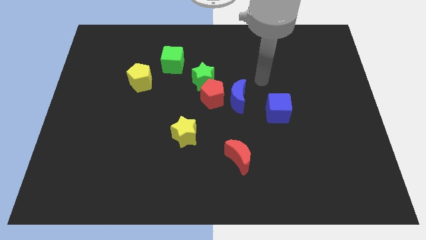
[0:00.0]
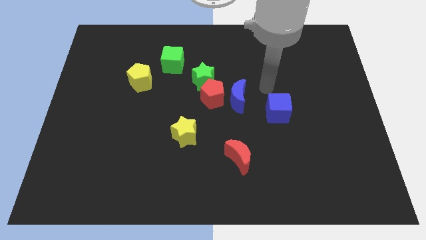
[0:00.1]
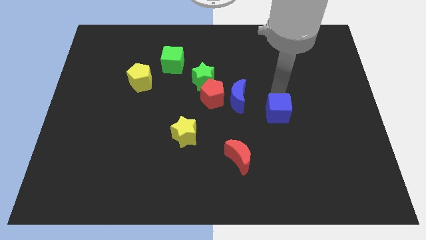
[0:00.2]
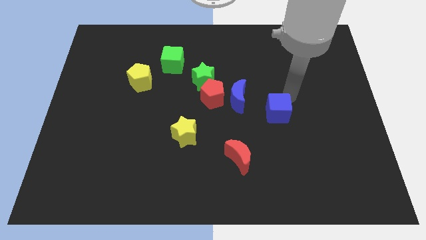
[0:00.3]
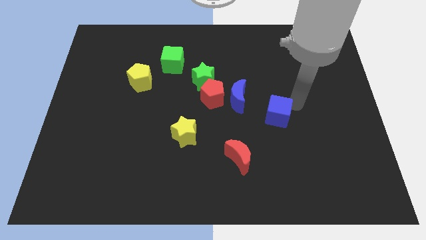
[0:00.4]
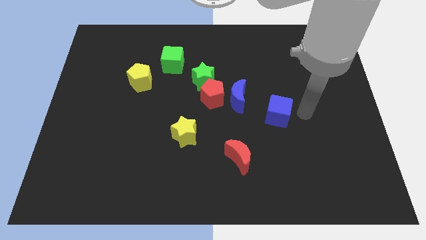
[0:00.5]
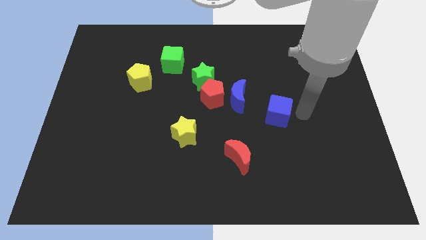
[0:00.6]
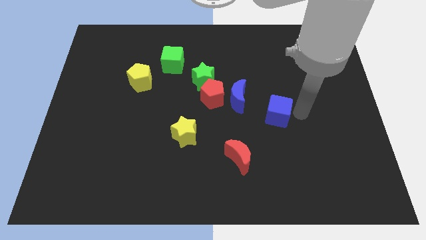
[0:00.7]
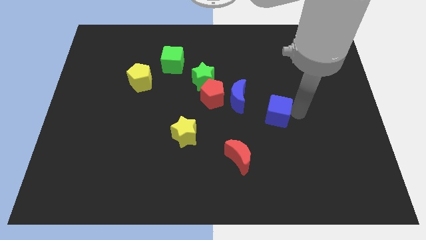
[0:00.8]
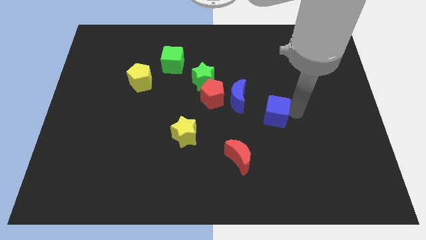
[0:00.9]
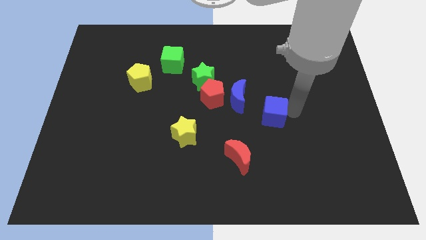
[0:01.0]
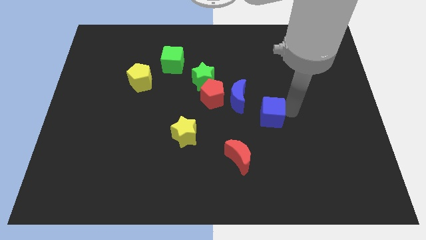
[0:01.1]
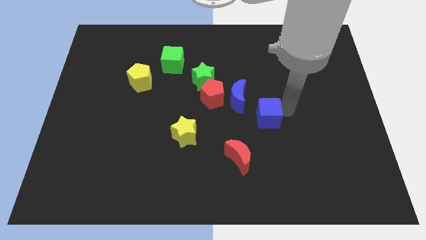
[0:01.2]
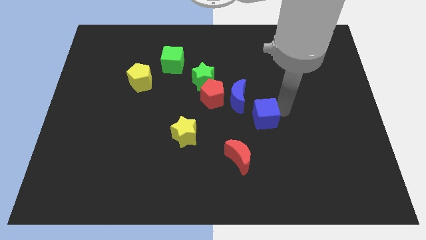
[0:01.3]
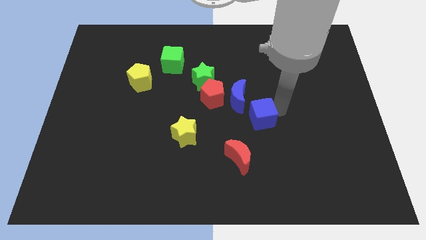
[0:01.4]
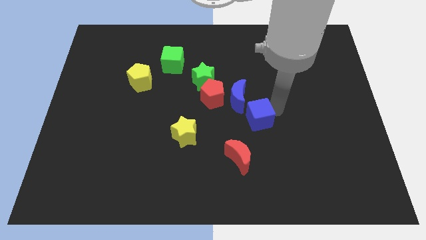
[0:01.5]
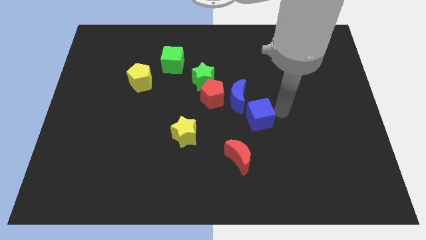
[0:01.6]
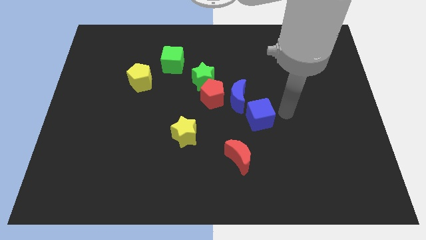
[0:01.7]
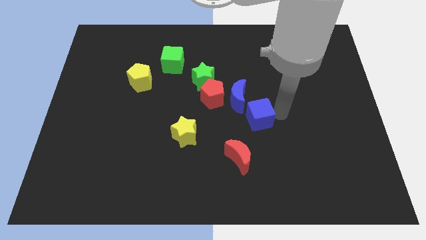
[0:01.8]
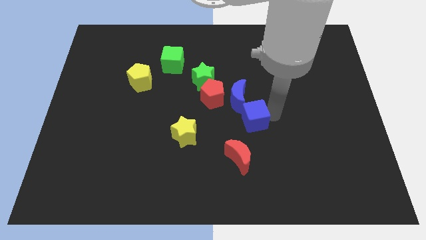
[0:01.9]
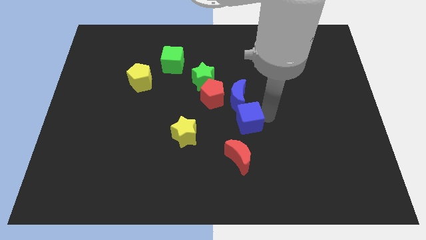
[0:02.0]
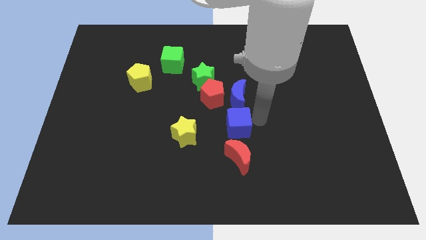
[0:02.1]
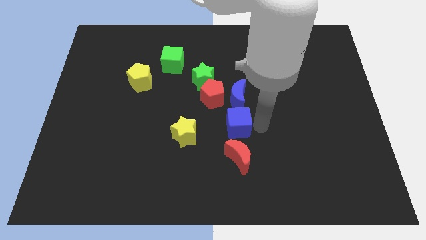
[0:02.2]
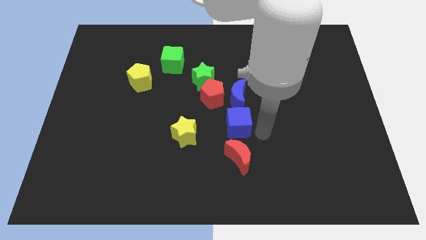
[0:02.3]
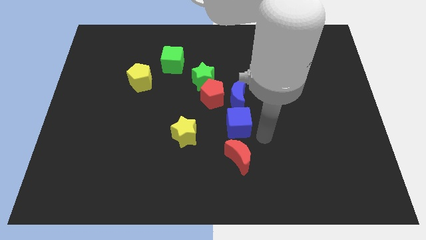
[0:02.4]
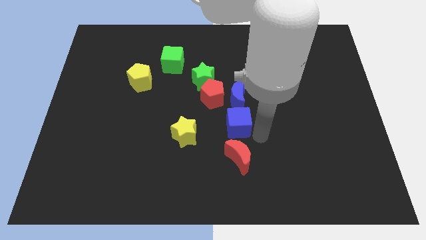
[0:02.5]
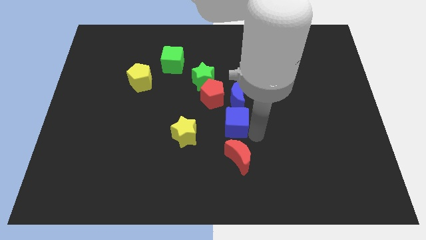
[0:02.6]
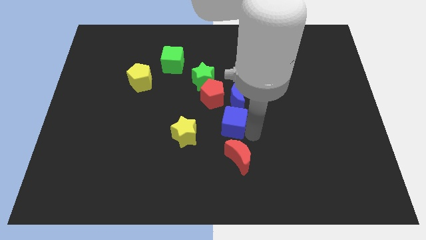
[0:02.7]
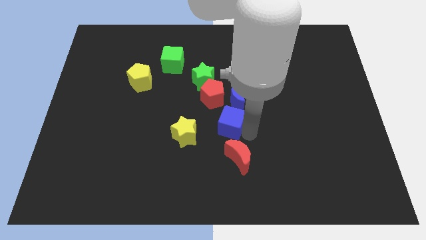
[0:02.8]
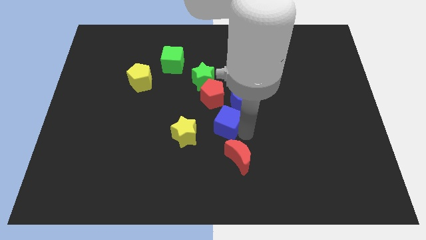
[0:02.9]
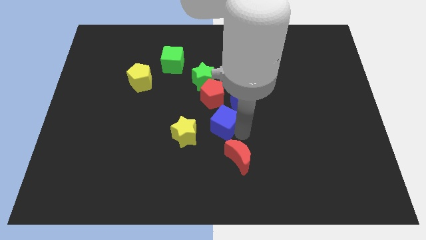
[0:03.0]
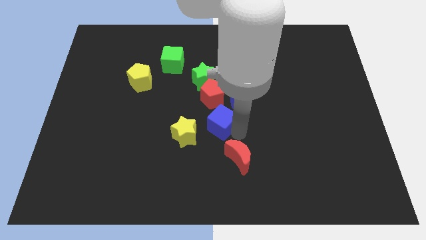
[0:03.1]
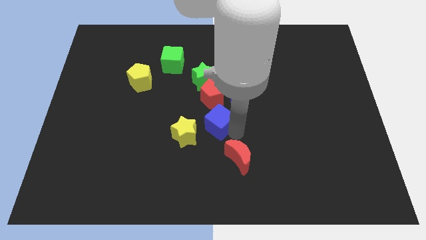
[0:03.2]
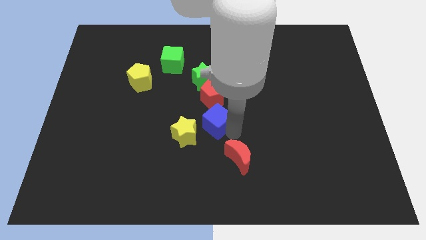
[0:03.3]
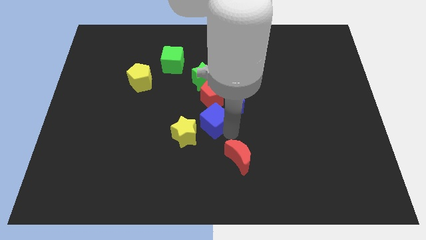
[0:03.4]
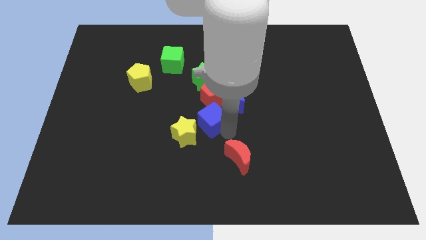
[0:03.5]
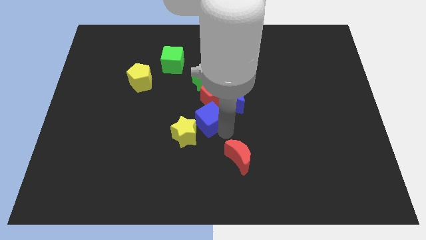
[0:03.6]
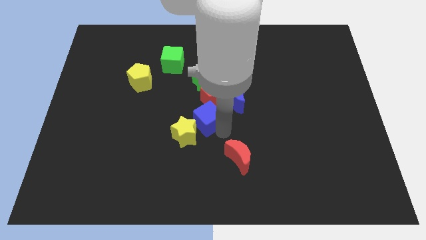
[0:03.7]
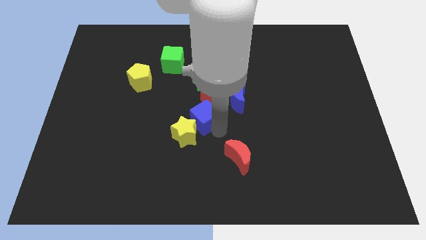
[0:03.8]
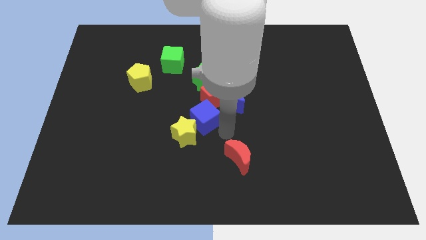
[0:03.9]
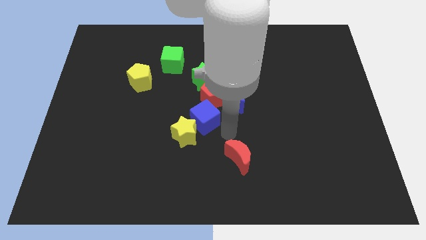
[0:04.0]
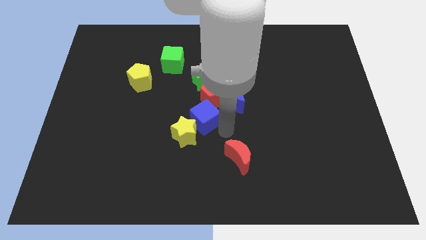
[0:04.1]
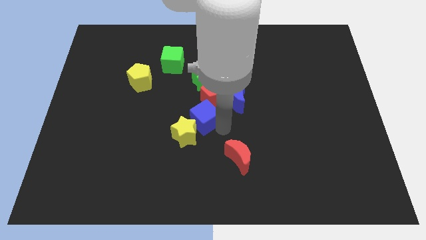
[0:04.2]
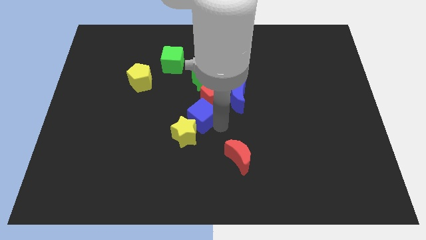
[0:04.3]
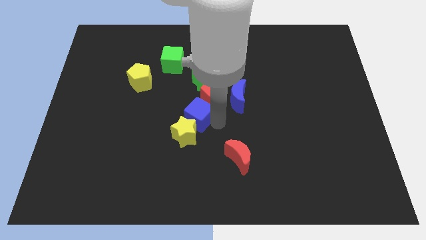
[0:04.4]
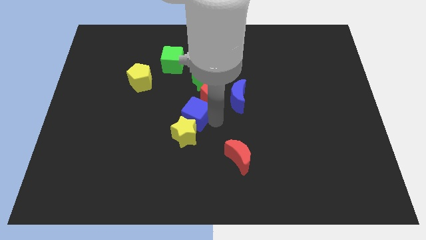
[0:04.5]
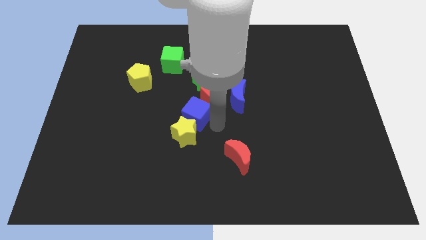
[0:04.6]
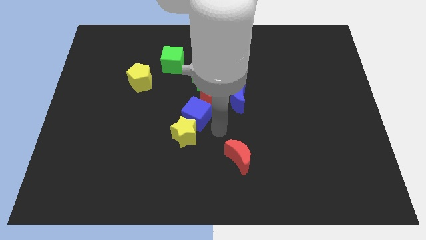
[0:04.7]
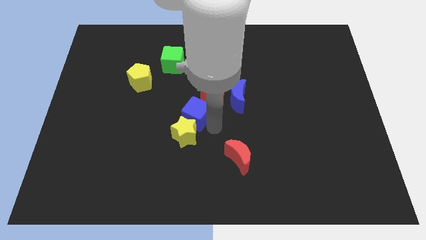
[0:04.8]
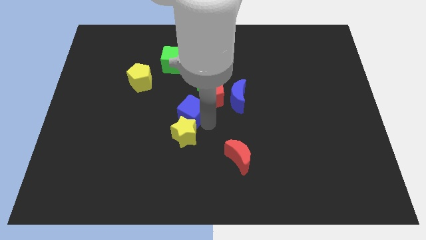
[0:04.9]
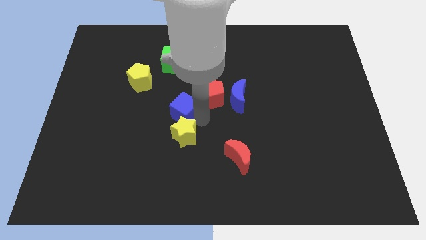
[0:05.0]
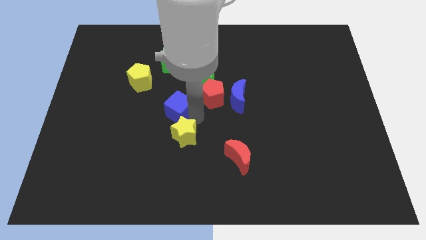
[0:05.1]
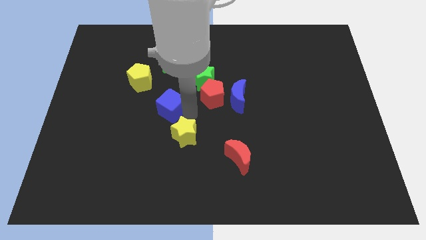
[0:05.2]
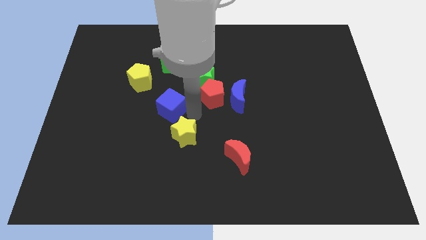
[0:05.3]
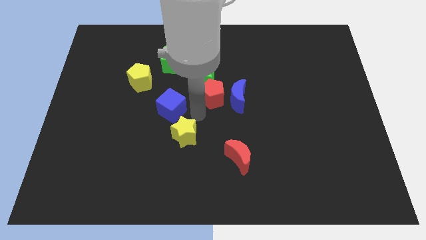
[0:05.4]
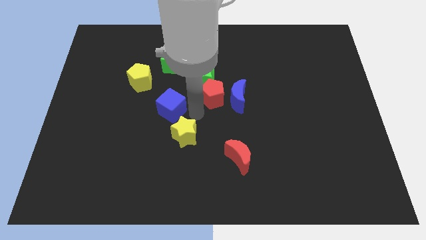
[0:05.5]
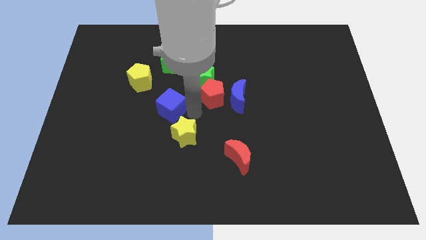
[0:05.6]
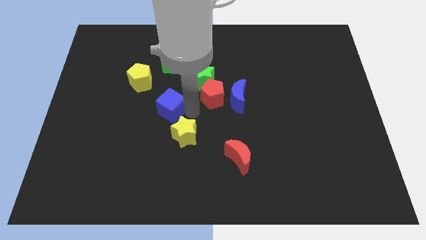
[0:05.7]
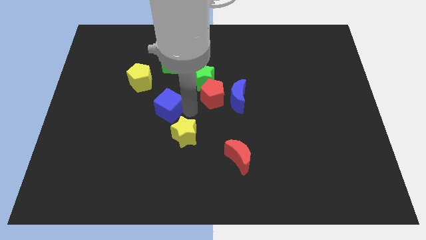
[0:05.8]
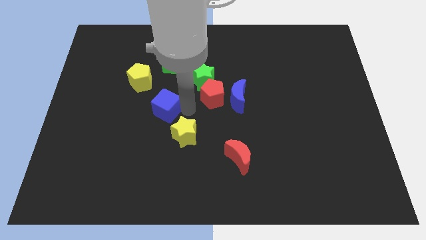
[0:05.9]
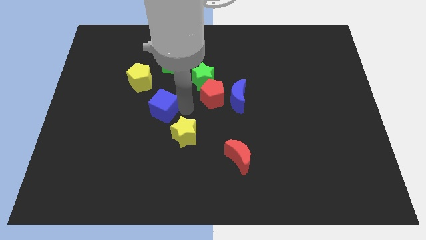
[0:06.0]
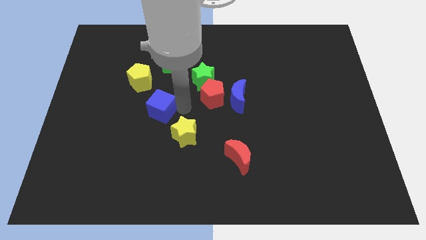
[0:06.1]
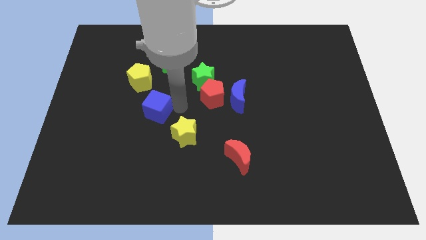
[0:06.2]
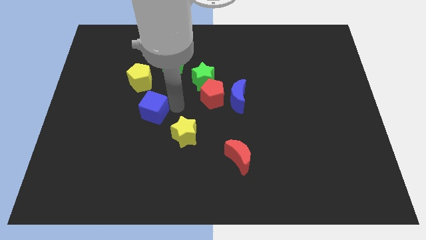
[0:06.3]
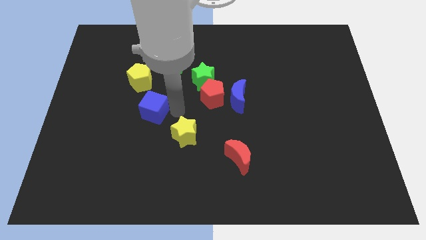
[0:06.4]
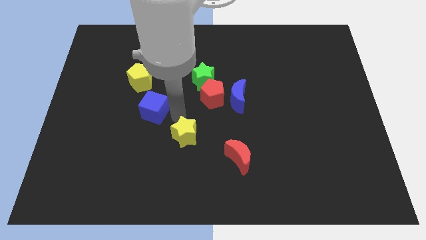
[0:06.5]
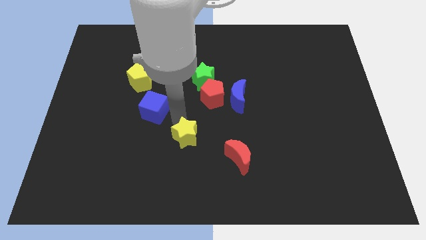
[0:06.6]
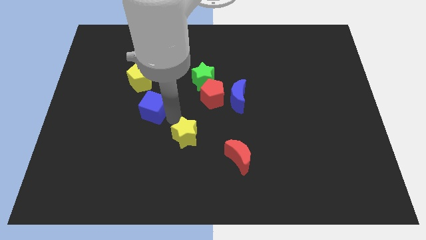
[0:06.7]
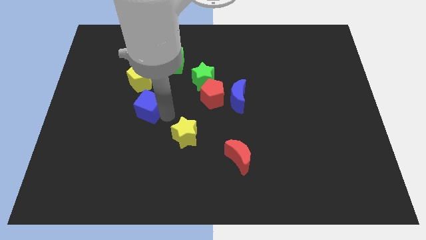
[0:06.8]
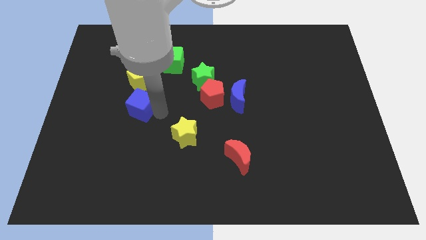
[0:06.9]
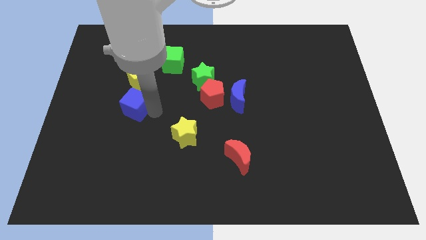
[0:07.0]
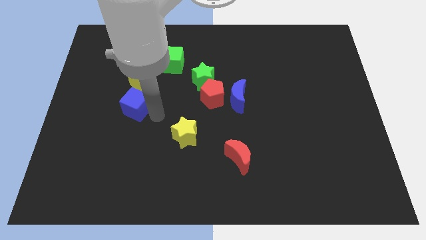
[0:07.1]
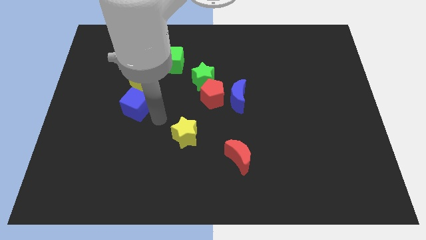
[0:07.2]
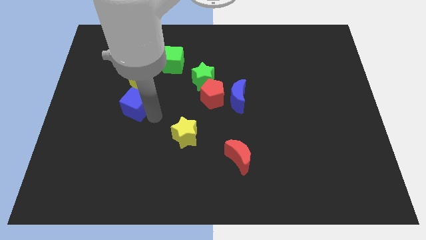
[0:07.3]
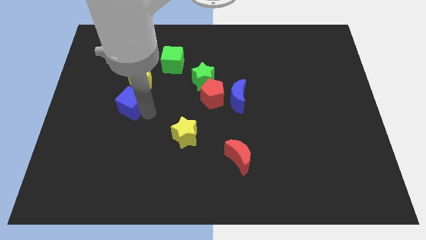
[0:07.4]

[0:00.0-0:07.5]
slide the blue cube diagonally down and to the left of the yellow pentagon
